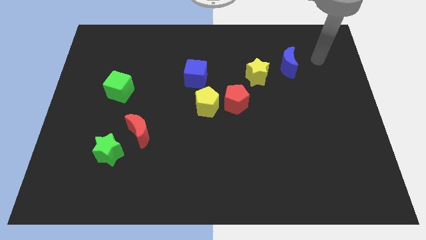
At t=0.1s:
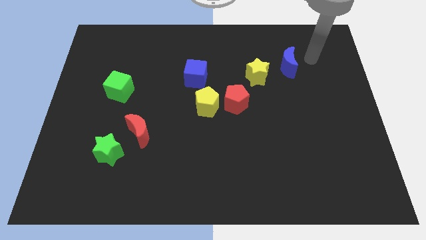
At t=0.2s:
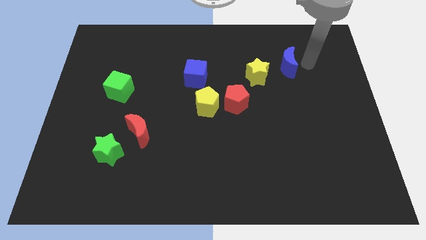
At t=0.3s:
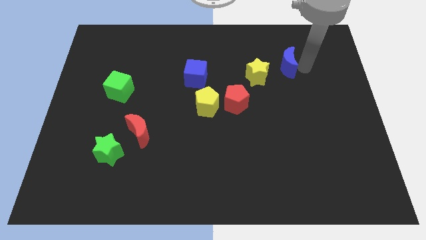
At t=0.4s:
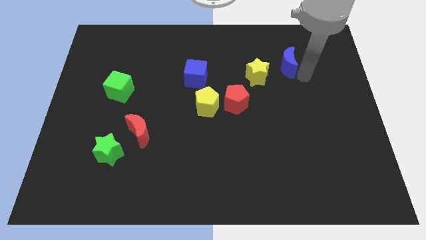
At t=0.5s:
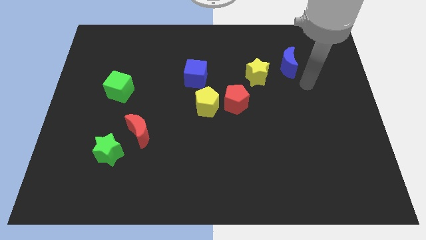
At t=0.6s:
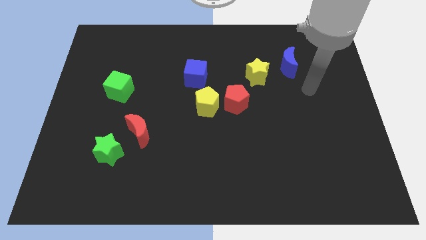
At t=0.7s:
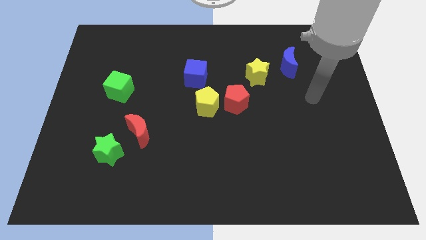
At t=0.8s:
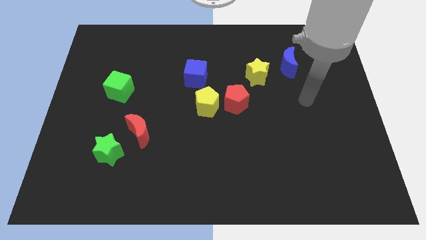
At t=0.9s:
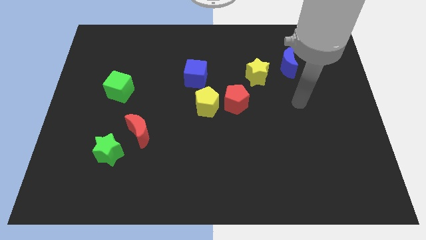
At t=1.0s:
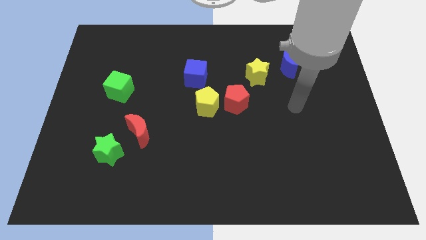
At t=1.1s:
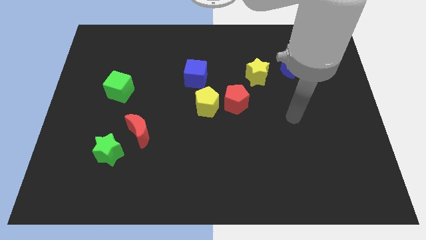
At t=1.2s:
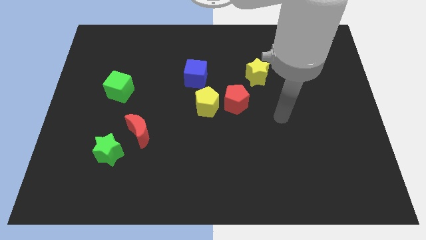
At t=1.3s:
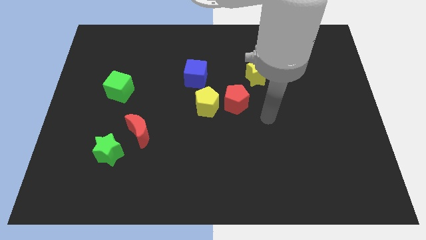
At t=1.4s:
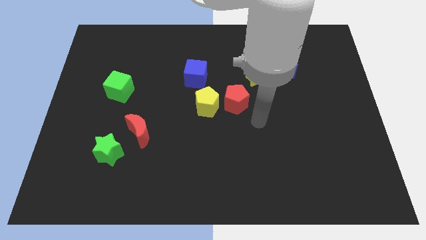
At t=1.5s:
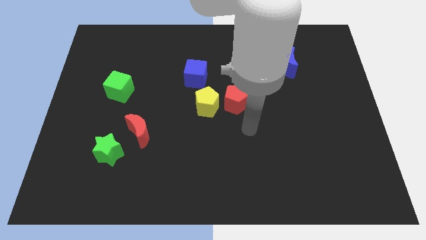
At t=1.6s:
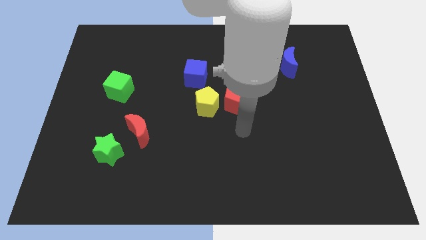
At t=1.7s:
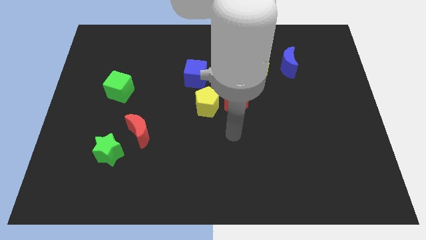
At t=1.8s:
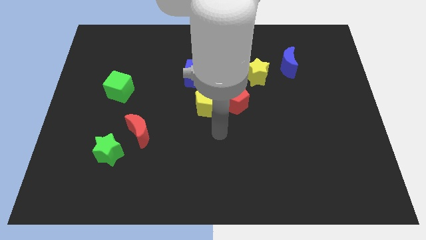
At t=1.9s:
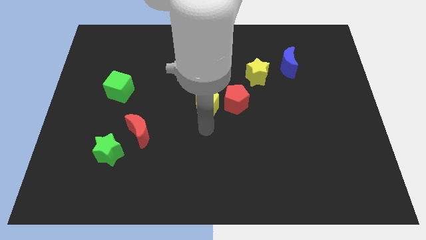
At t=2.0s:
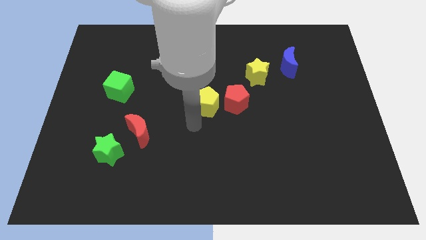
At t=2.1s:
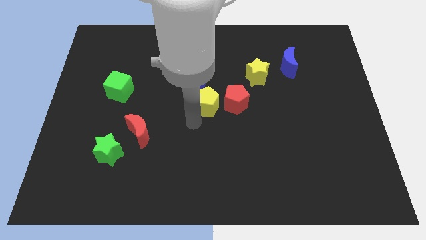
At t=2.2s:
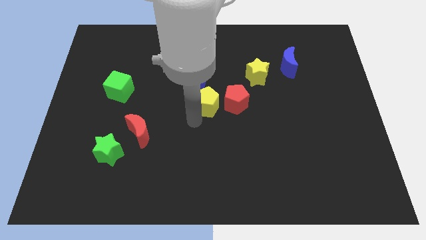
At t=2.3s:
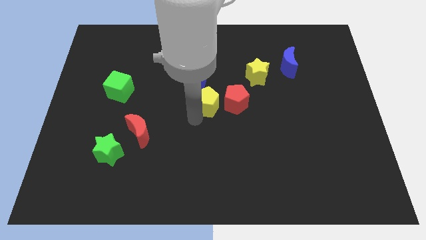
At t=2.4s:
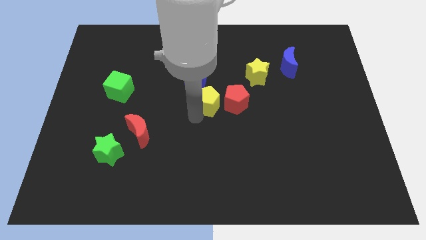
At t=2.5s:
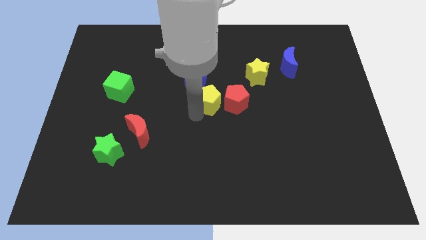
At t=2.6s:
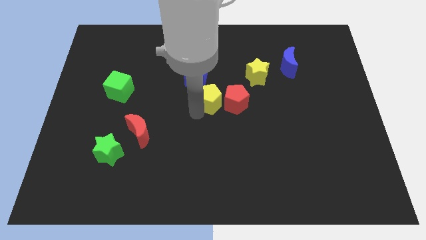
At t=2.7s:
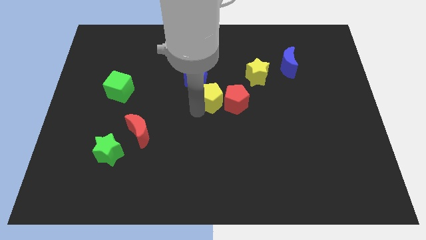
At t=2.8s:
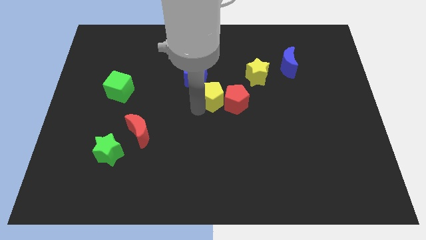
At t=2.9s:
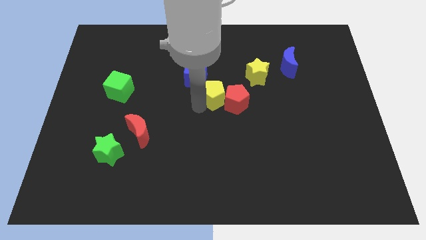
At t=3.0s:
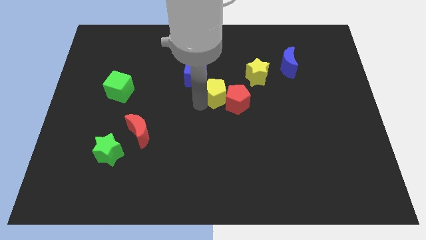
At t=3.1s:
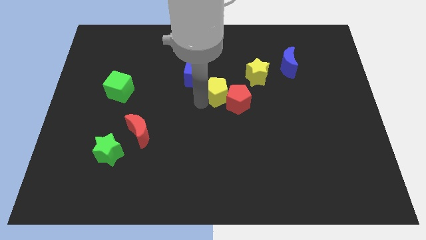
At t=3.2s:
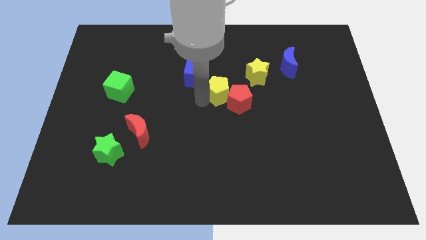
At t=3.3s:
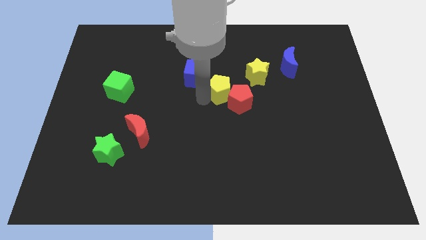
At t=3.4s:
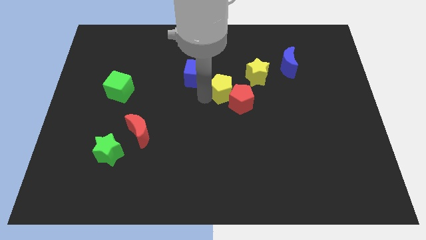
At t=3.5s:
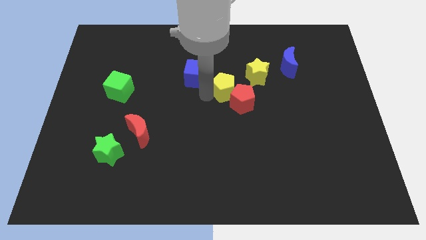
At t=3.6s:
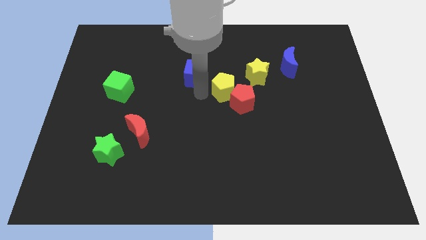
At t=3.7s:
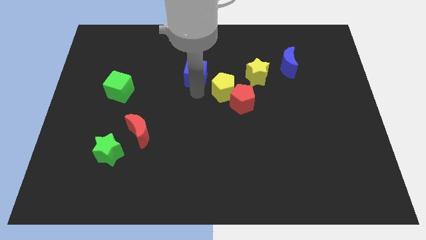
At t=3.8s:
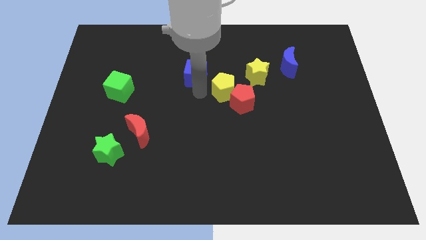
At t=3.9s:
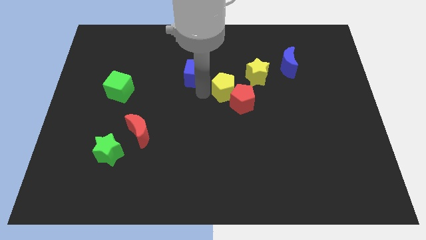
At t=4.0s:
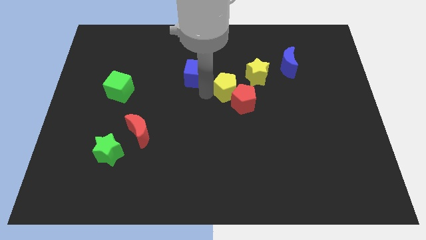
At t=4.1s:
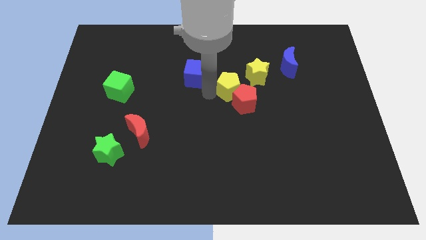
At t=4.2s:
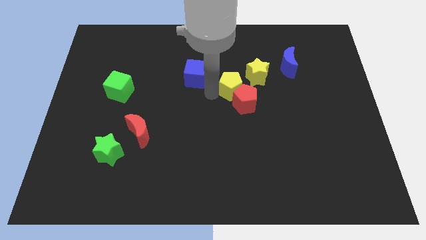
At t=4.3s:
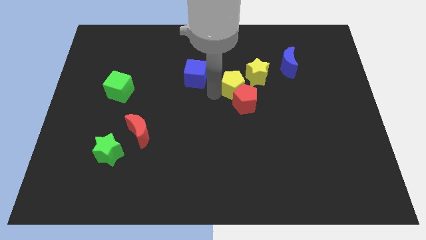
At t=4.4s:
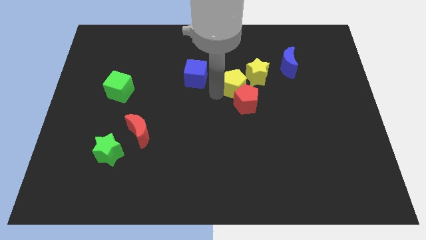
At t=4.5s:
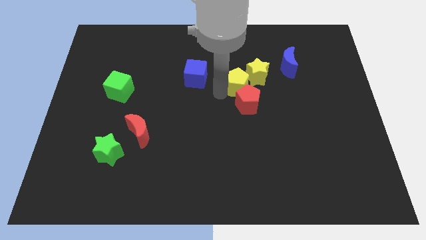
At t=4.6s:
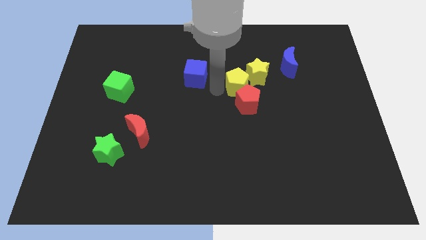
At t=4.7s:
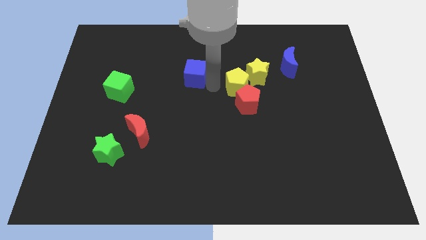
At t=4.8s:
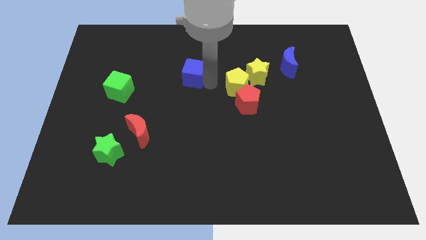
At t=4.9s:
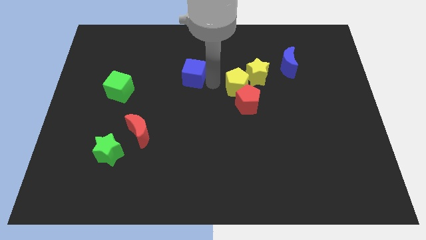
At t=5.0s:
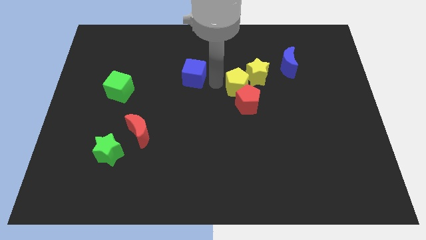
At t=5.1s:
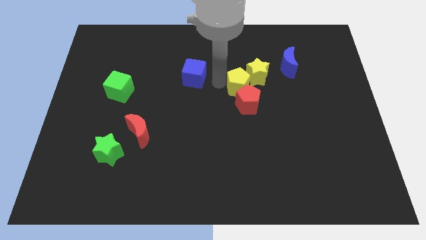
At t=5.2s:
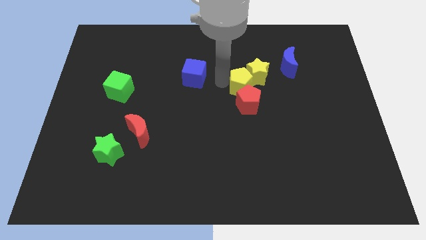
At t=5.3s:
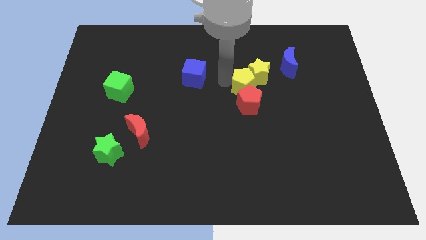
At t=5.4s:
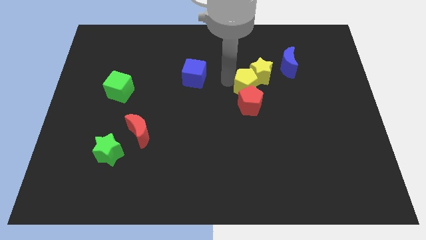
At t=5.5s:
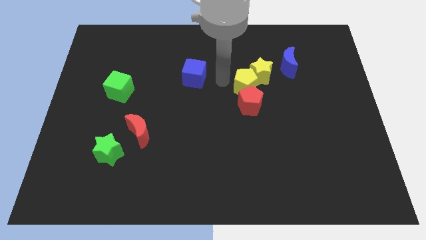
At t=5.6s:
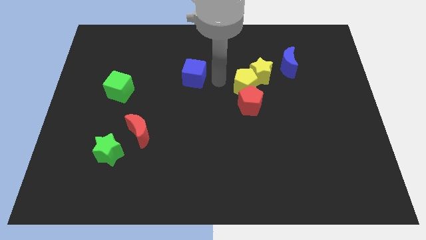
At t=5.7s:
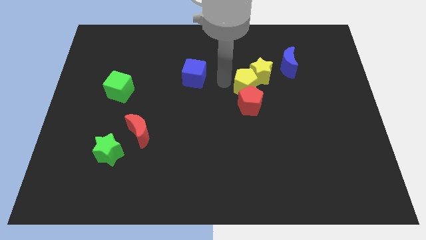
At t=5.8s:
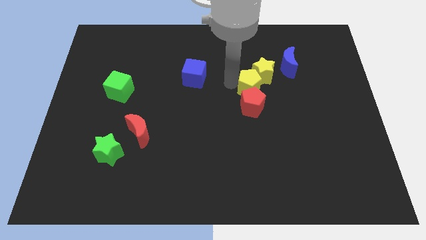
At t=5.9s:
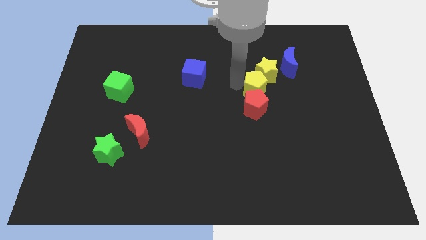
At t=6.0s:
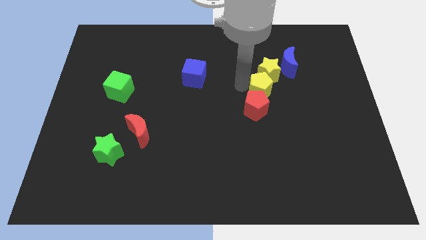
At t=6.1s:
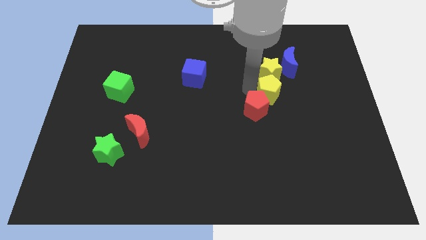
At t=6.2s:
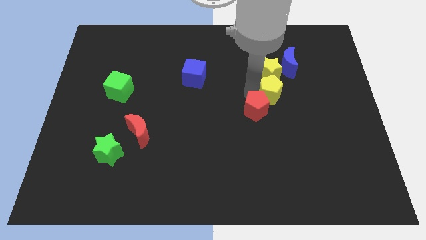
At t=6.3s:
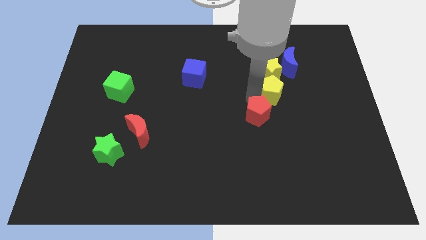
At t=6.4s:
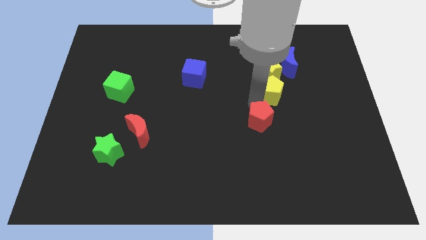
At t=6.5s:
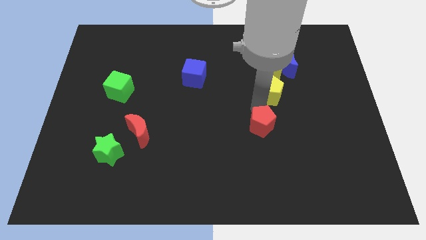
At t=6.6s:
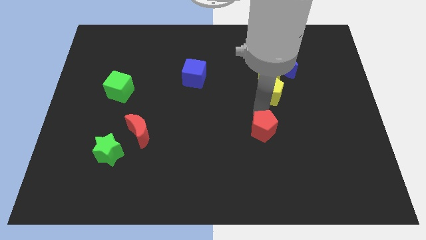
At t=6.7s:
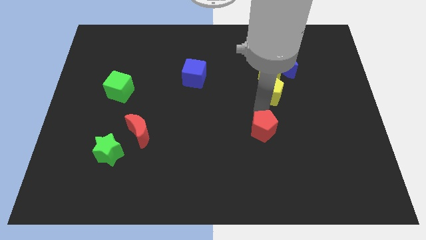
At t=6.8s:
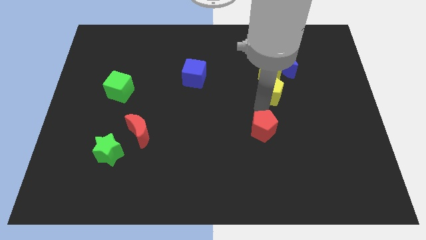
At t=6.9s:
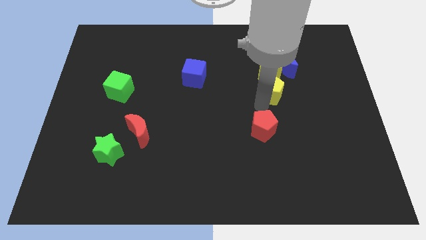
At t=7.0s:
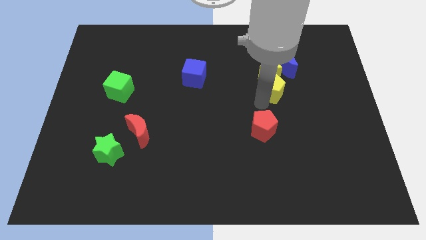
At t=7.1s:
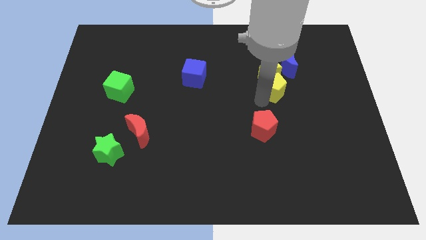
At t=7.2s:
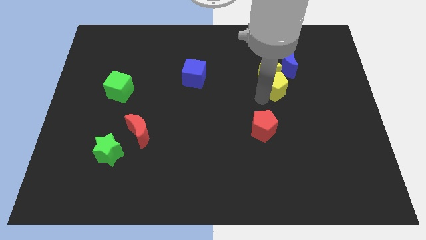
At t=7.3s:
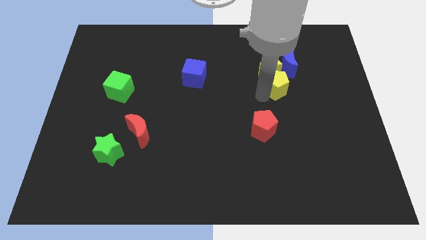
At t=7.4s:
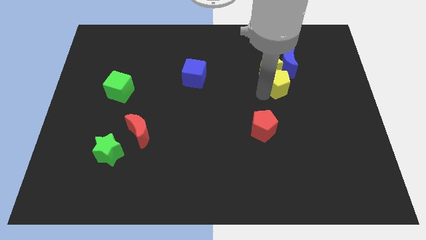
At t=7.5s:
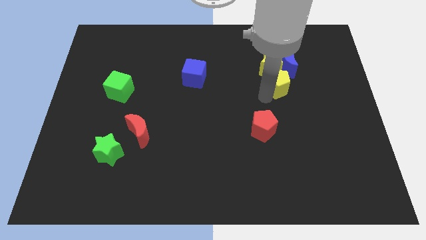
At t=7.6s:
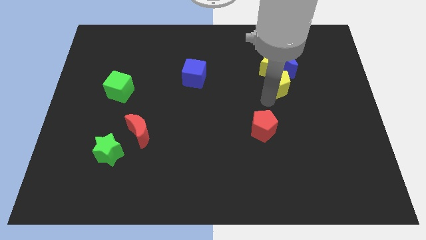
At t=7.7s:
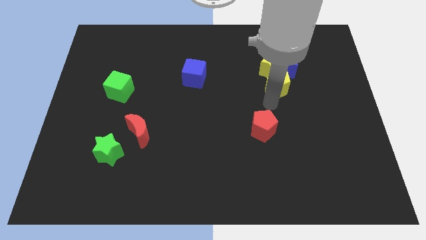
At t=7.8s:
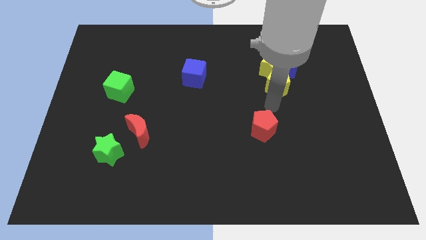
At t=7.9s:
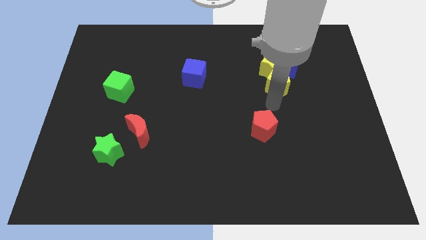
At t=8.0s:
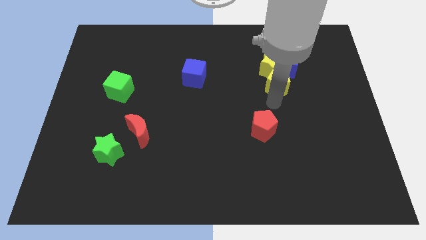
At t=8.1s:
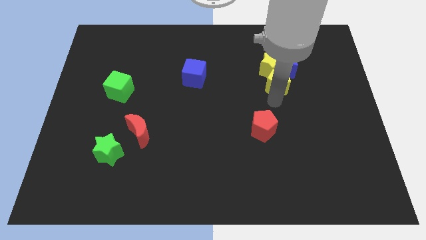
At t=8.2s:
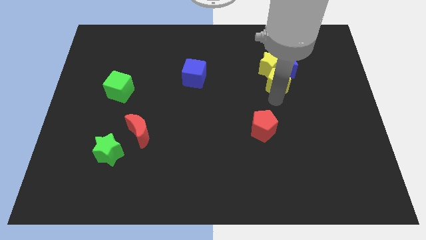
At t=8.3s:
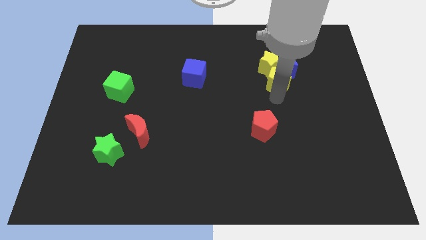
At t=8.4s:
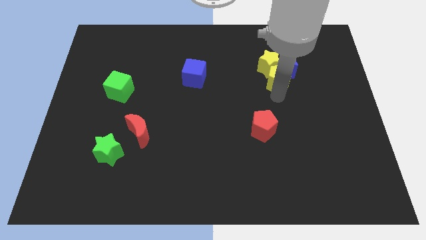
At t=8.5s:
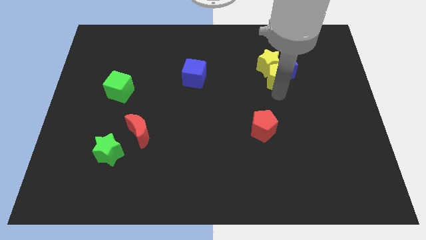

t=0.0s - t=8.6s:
put the yellow pentagon to the blue moon
